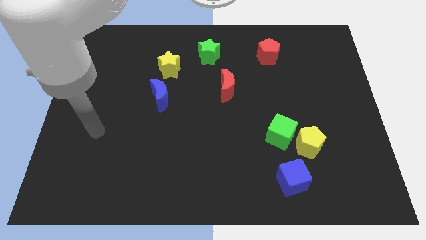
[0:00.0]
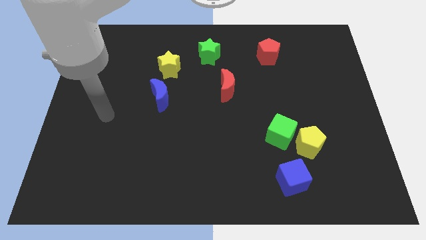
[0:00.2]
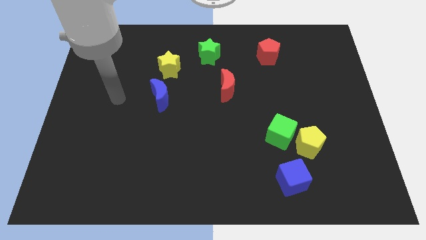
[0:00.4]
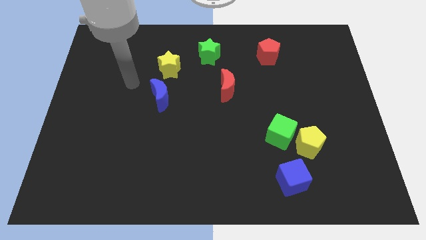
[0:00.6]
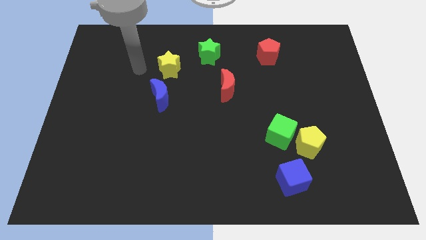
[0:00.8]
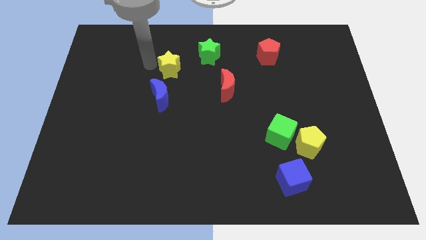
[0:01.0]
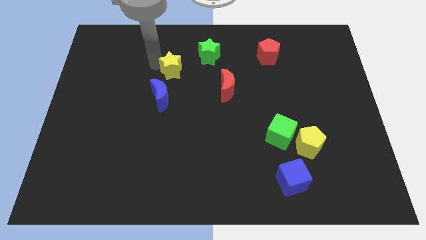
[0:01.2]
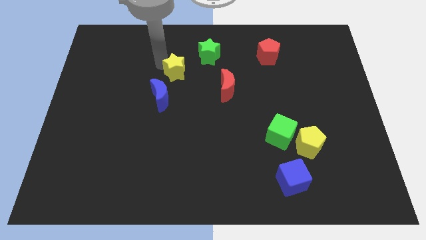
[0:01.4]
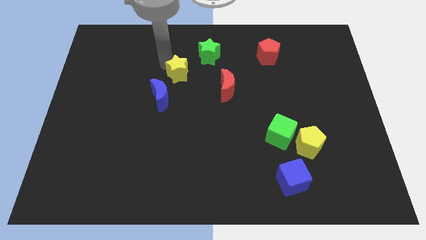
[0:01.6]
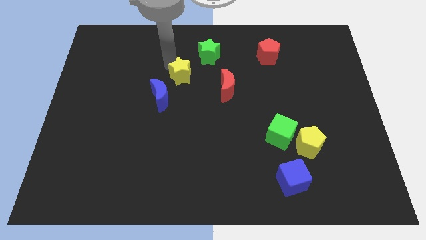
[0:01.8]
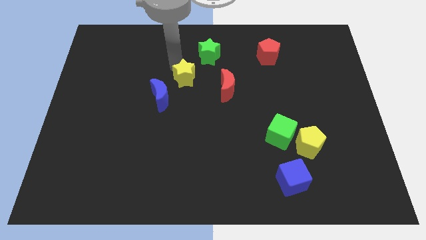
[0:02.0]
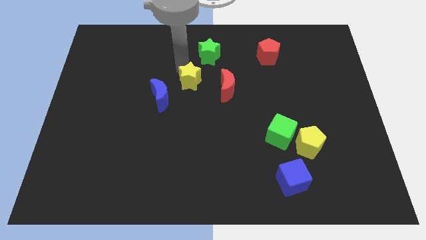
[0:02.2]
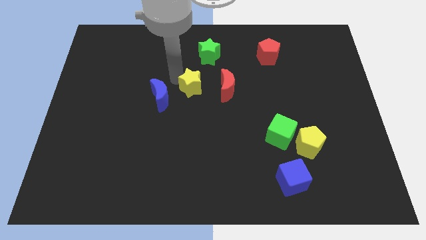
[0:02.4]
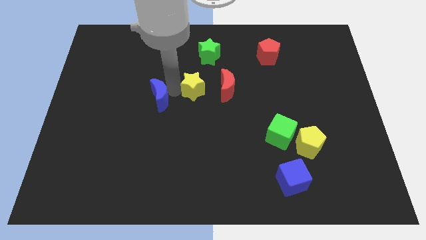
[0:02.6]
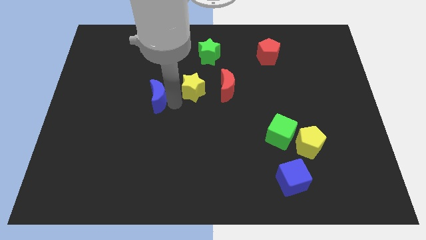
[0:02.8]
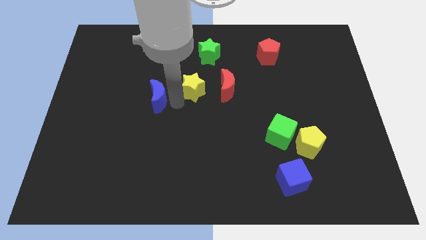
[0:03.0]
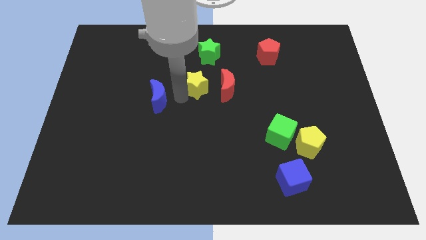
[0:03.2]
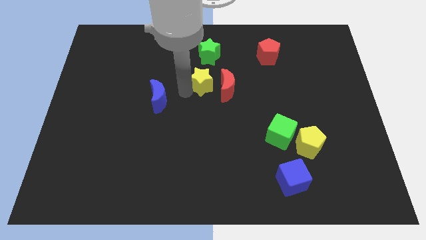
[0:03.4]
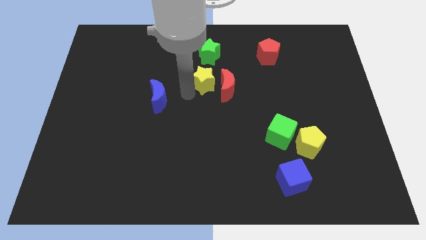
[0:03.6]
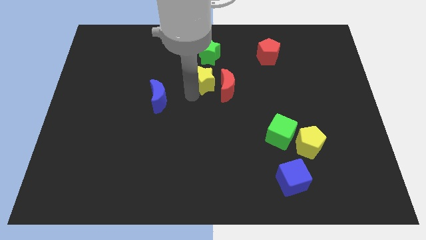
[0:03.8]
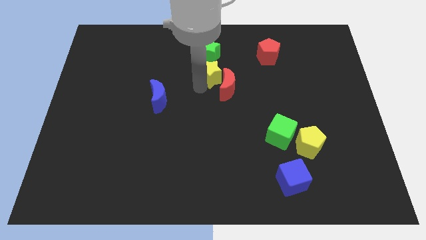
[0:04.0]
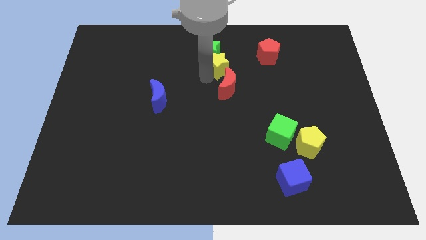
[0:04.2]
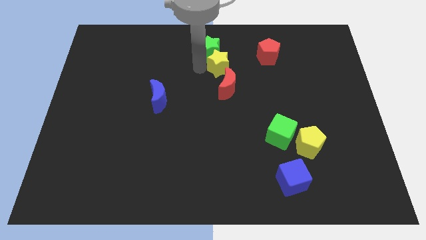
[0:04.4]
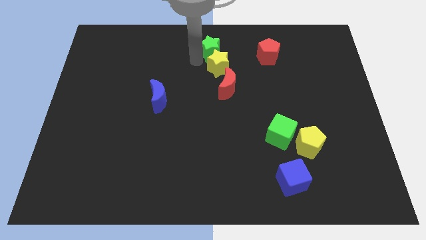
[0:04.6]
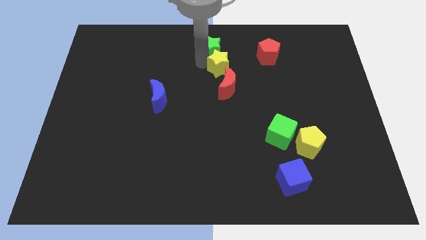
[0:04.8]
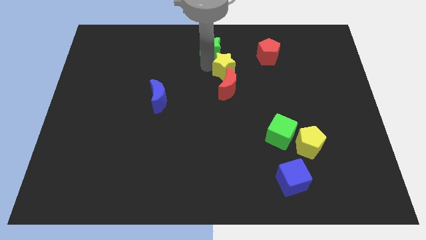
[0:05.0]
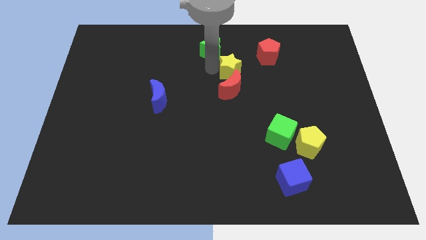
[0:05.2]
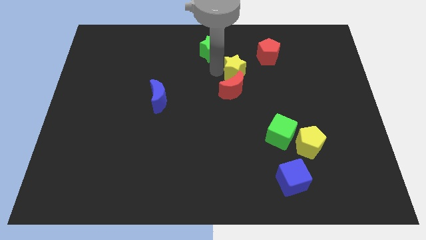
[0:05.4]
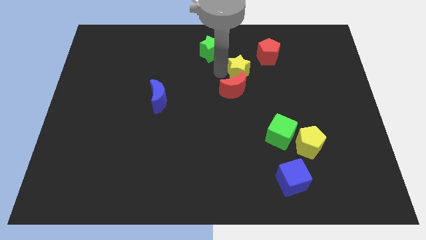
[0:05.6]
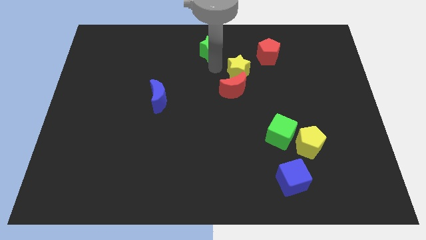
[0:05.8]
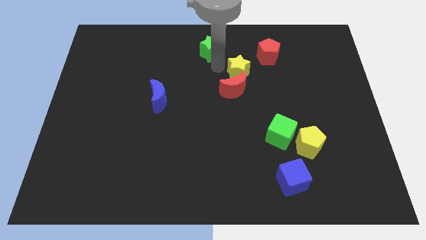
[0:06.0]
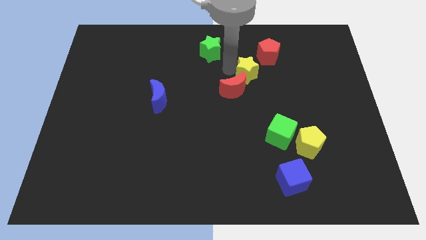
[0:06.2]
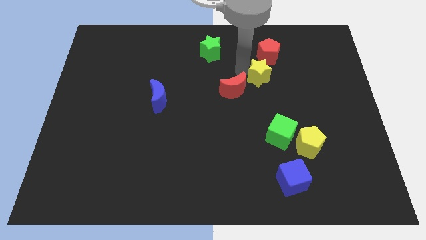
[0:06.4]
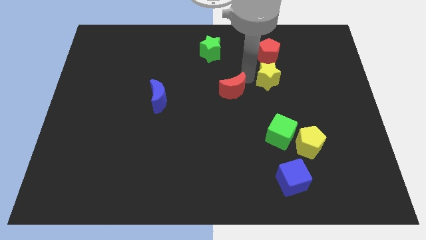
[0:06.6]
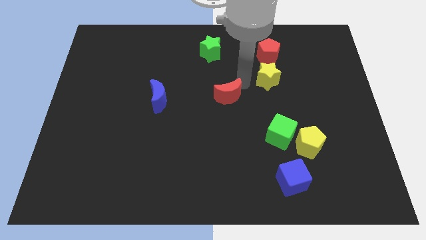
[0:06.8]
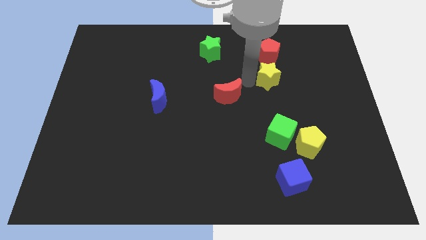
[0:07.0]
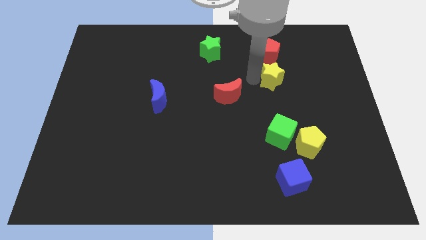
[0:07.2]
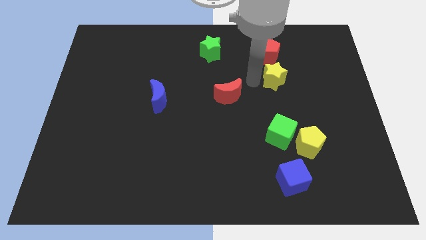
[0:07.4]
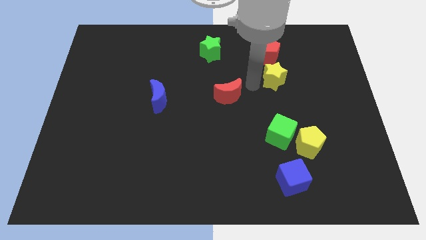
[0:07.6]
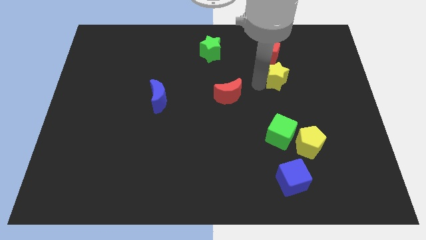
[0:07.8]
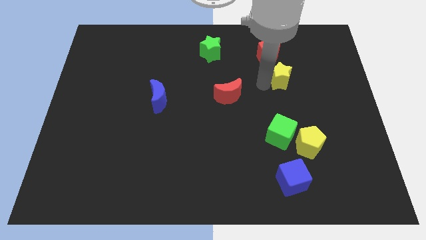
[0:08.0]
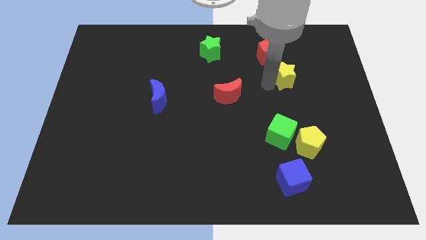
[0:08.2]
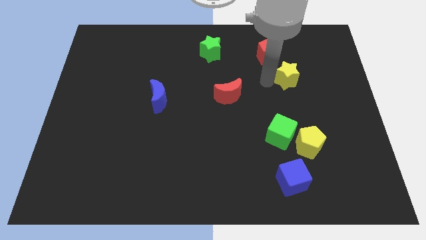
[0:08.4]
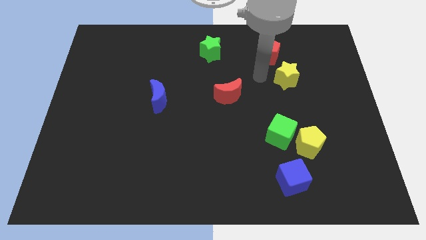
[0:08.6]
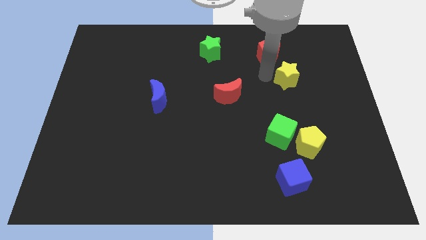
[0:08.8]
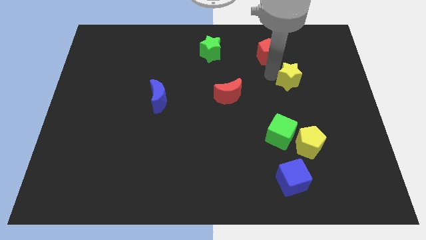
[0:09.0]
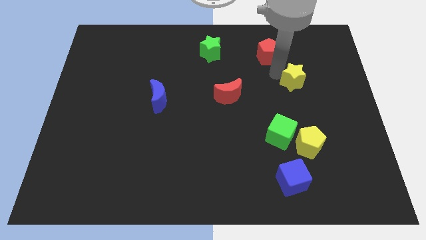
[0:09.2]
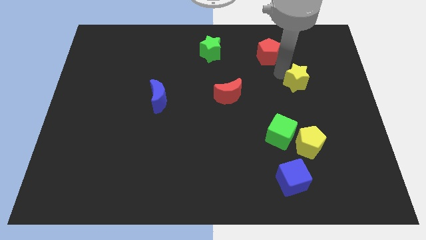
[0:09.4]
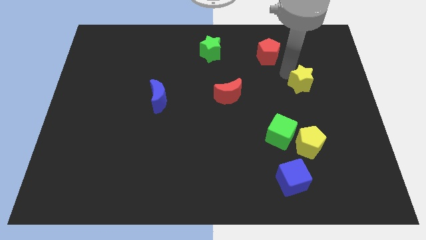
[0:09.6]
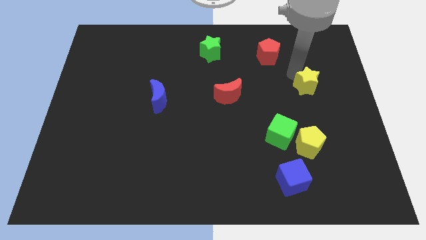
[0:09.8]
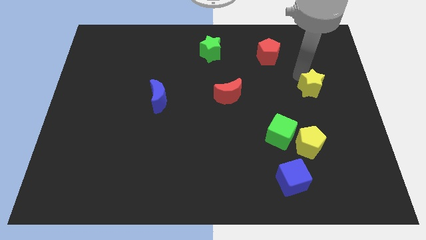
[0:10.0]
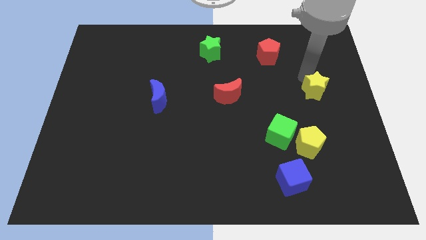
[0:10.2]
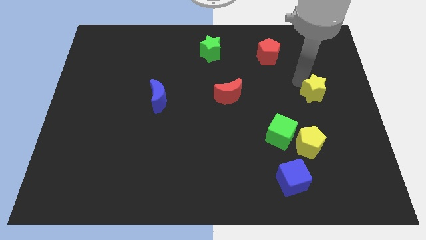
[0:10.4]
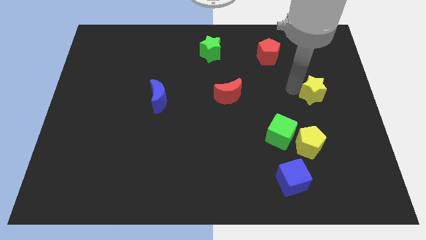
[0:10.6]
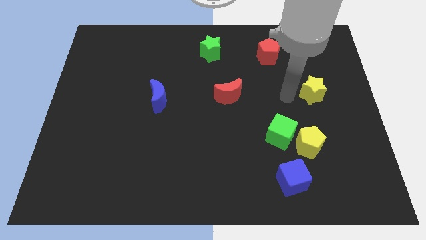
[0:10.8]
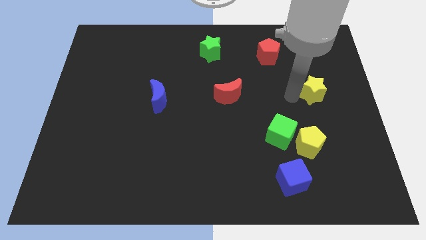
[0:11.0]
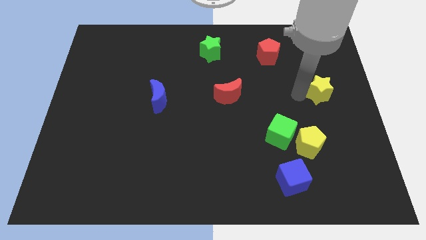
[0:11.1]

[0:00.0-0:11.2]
move the yellow star to the right side of the board
